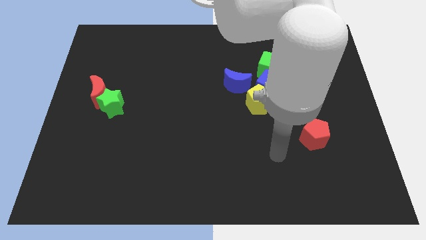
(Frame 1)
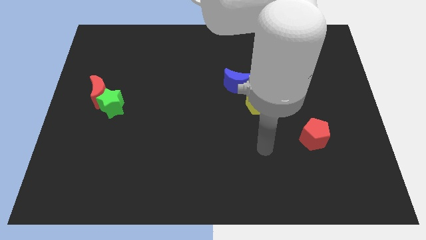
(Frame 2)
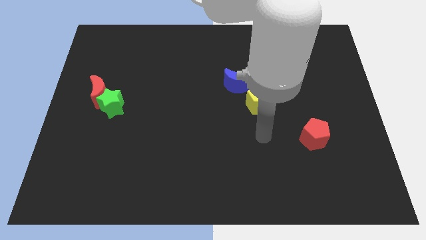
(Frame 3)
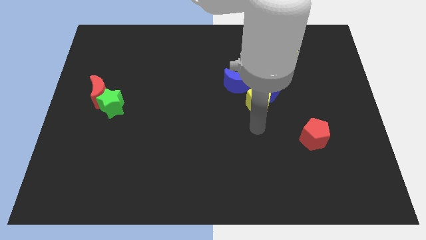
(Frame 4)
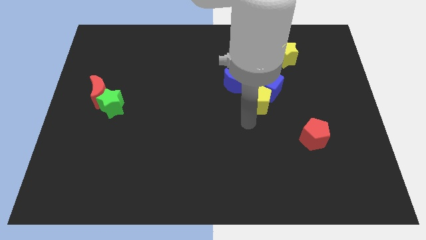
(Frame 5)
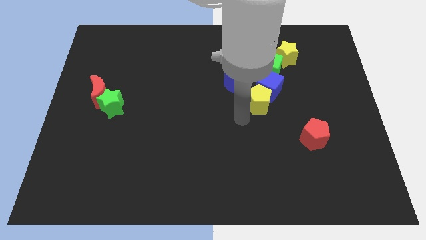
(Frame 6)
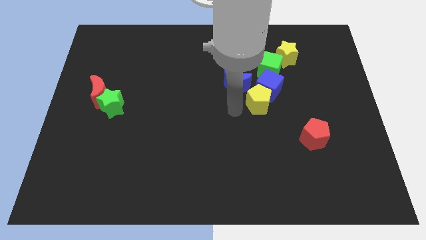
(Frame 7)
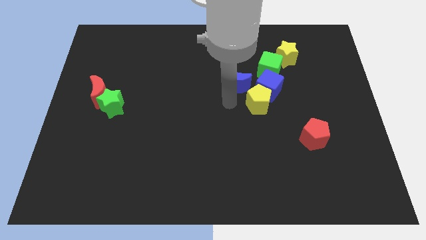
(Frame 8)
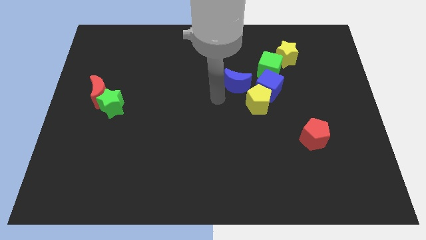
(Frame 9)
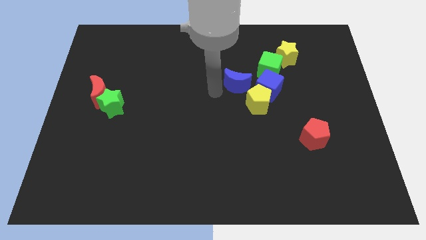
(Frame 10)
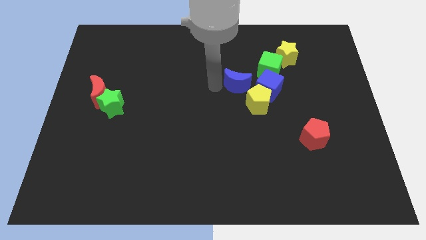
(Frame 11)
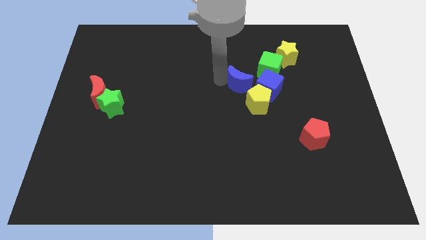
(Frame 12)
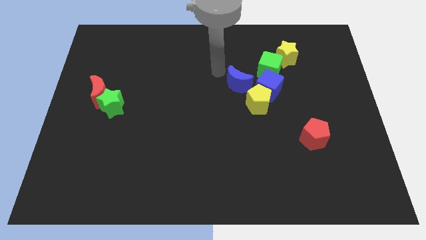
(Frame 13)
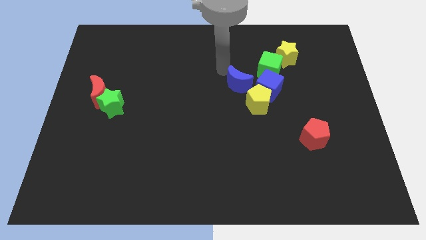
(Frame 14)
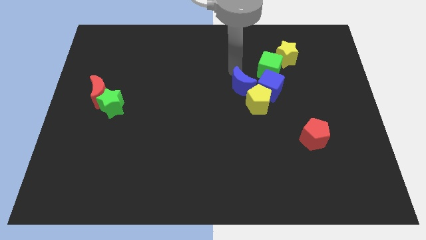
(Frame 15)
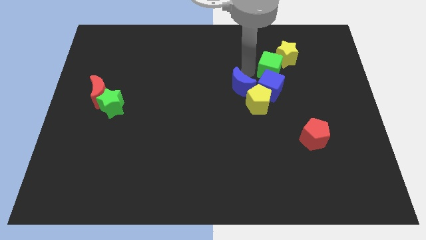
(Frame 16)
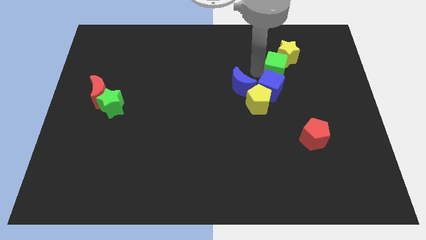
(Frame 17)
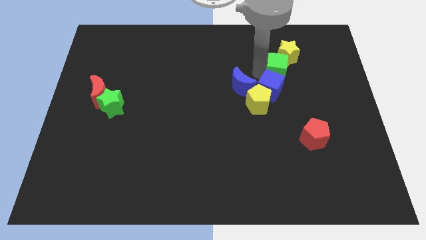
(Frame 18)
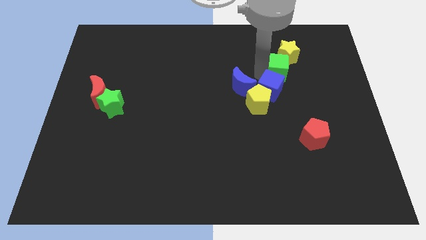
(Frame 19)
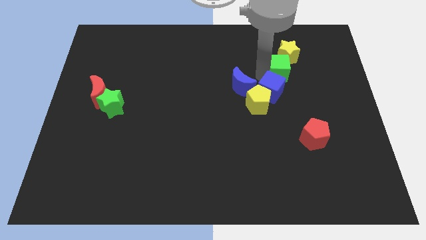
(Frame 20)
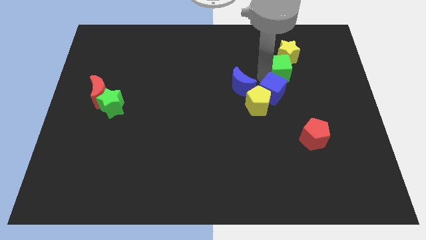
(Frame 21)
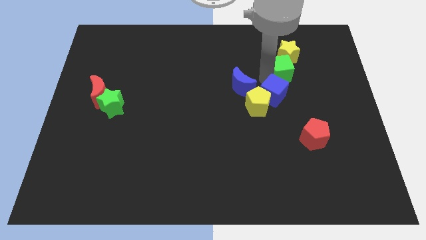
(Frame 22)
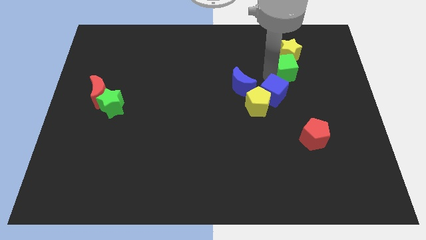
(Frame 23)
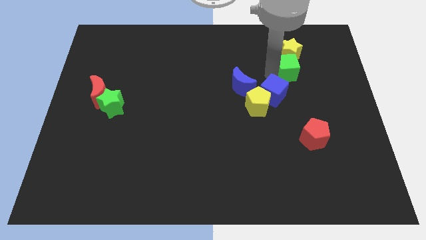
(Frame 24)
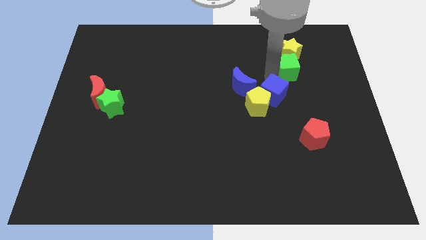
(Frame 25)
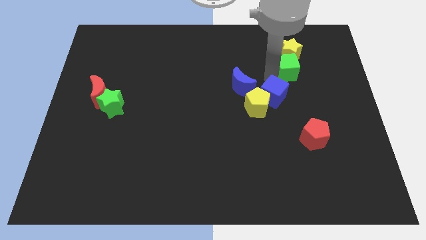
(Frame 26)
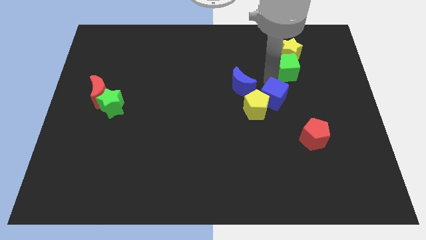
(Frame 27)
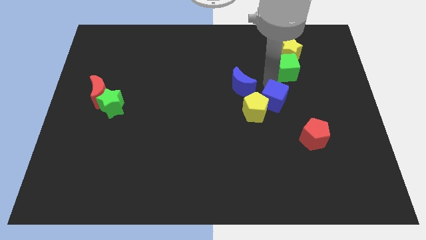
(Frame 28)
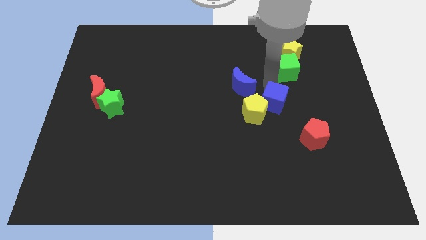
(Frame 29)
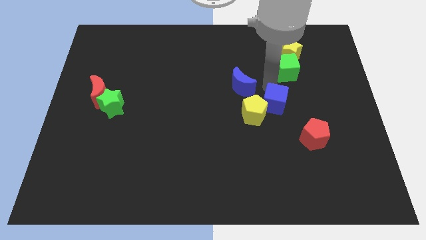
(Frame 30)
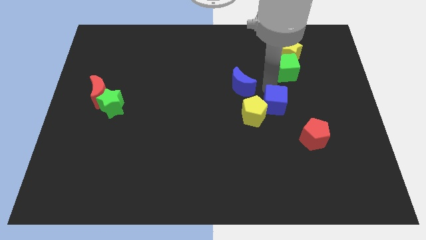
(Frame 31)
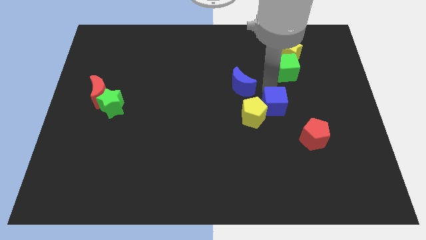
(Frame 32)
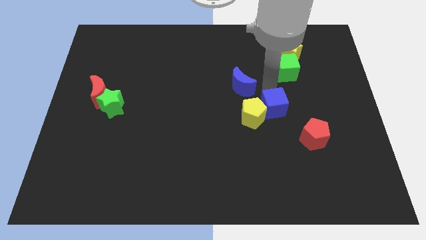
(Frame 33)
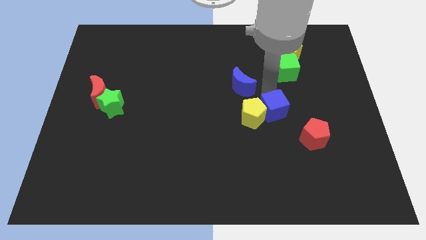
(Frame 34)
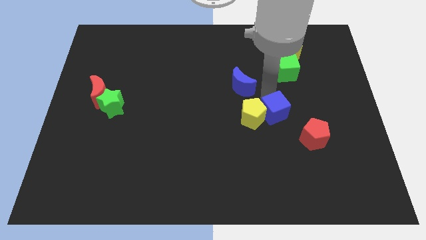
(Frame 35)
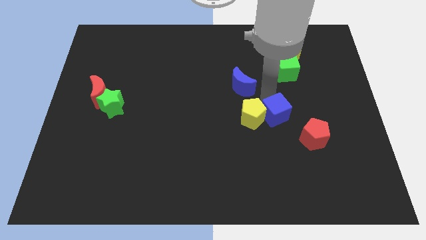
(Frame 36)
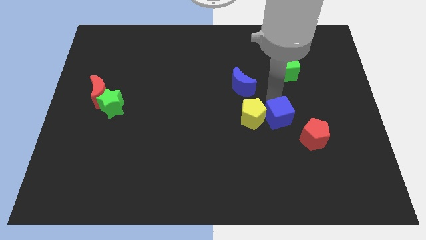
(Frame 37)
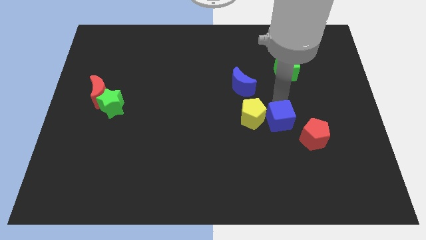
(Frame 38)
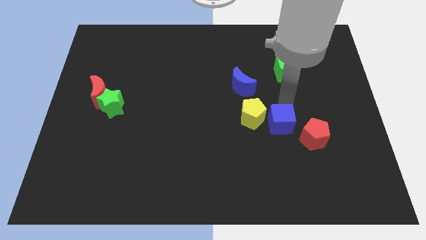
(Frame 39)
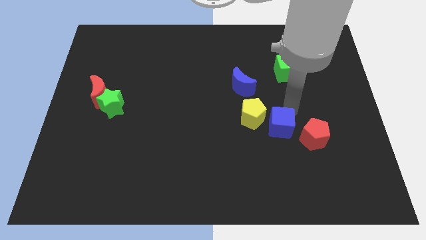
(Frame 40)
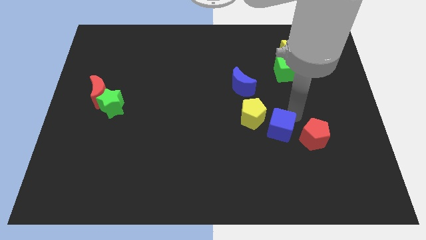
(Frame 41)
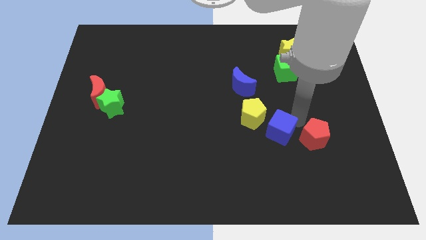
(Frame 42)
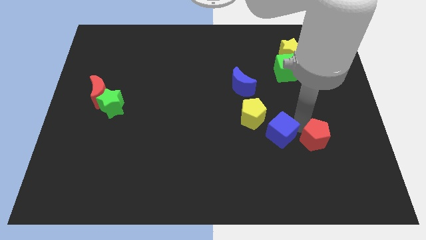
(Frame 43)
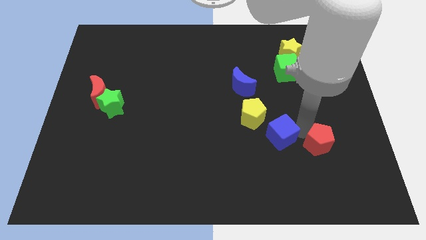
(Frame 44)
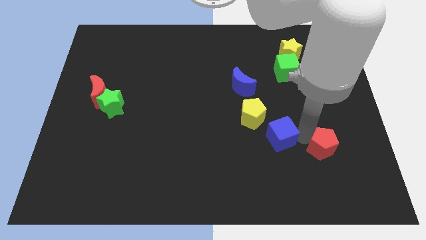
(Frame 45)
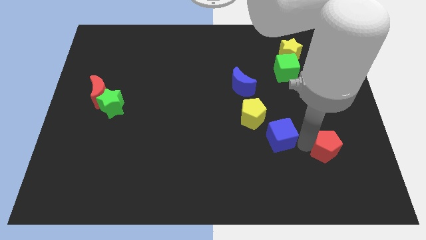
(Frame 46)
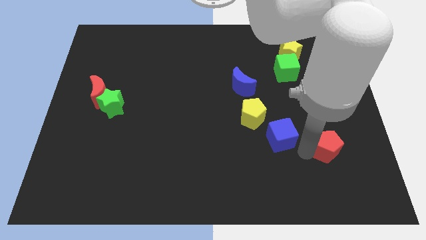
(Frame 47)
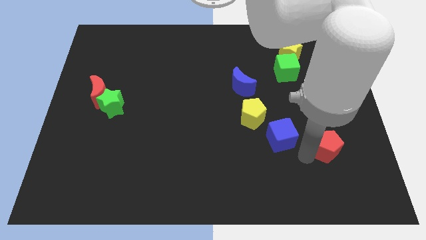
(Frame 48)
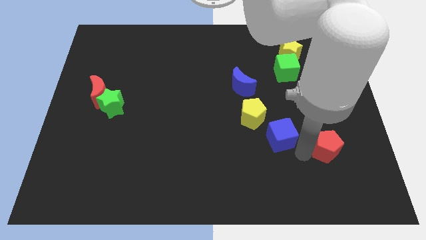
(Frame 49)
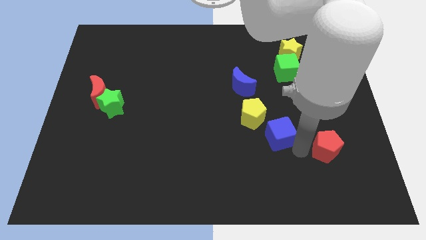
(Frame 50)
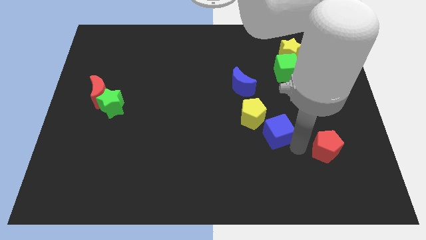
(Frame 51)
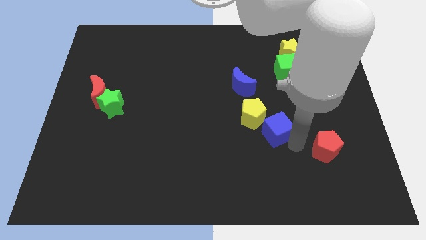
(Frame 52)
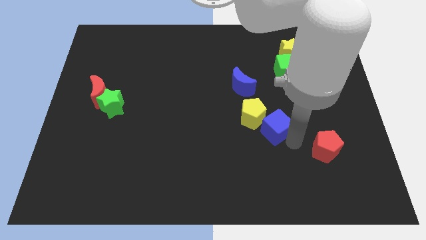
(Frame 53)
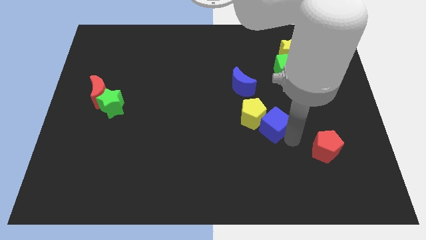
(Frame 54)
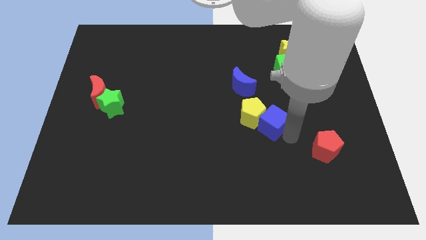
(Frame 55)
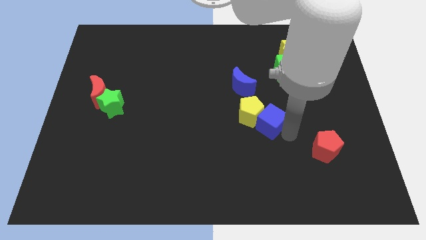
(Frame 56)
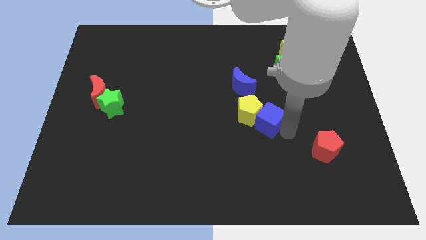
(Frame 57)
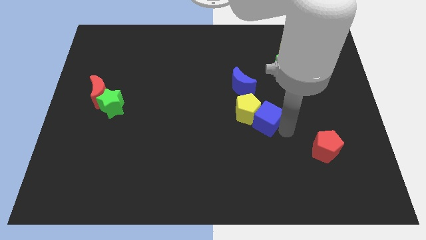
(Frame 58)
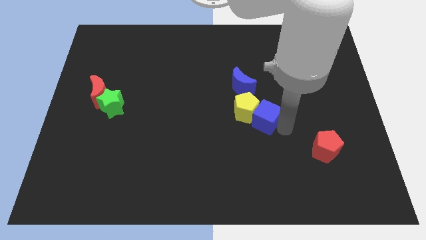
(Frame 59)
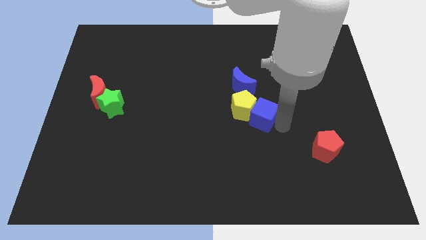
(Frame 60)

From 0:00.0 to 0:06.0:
push the blue cube to the center

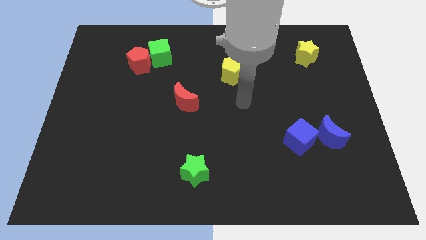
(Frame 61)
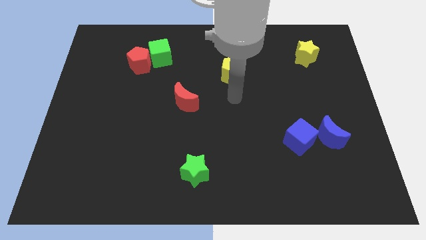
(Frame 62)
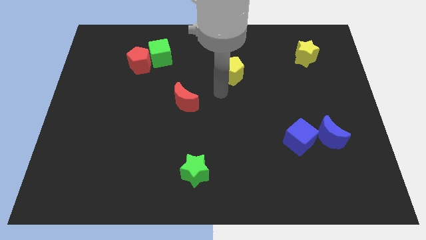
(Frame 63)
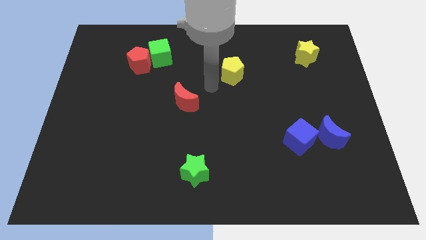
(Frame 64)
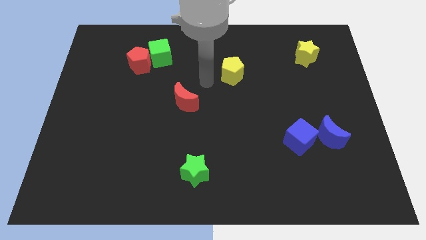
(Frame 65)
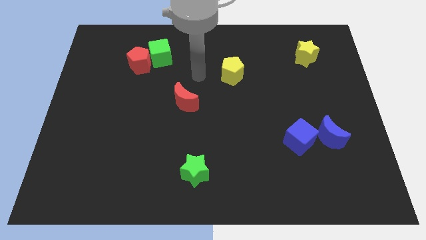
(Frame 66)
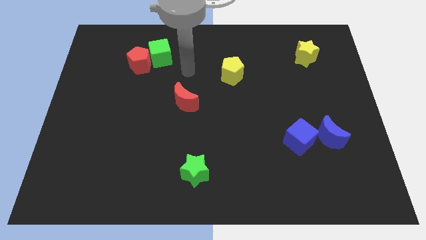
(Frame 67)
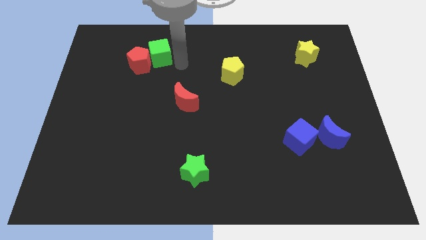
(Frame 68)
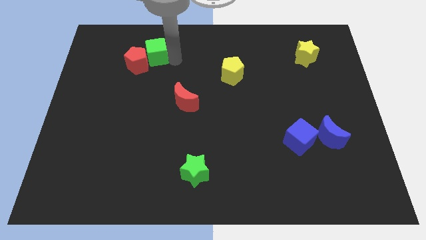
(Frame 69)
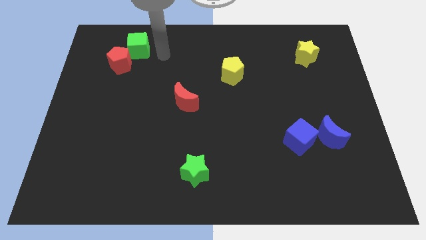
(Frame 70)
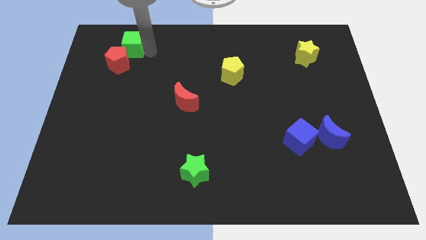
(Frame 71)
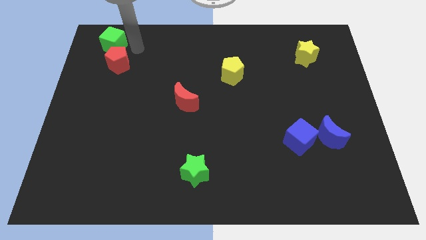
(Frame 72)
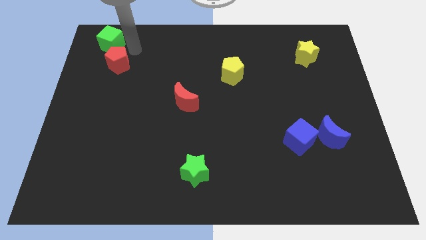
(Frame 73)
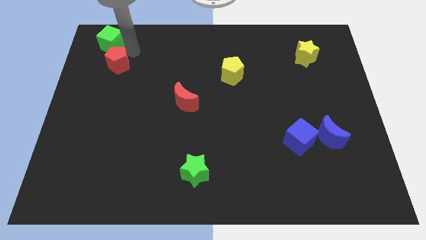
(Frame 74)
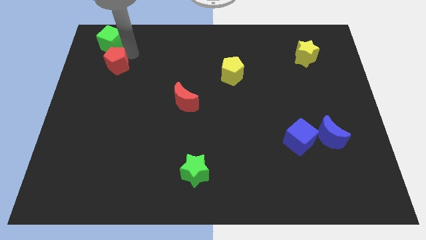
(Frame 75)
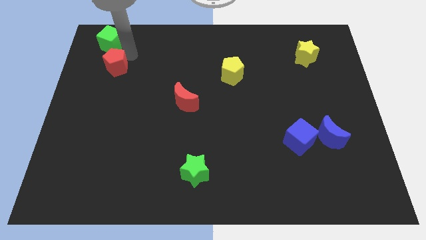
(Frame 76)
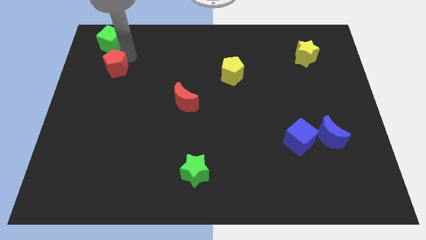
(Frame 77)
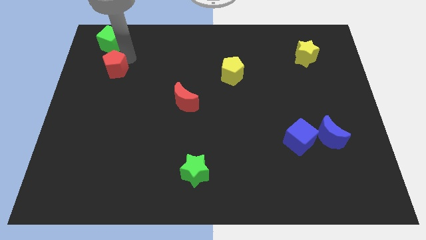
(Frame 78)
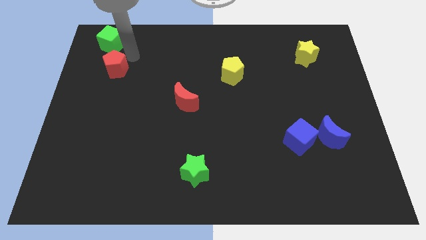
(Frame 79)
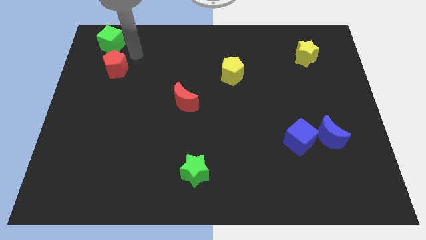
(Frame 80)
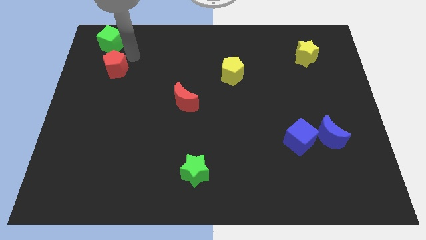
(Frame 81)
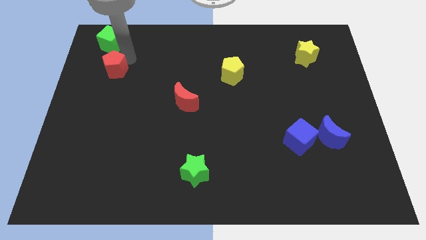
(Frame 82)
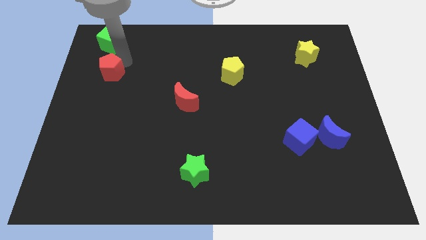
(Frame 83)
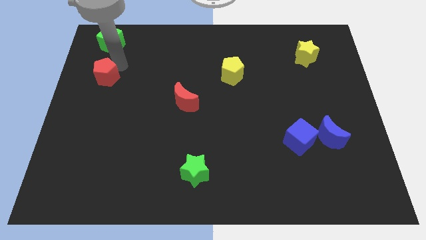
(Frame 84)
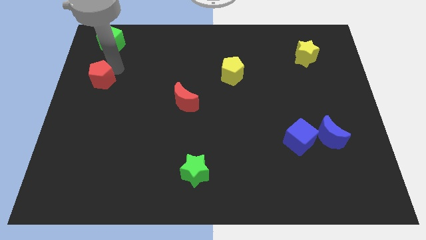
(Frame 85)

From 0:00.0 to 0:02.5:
slide the red pentagon to the center left
